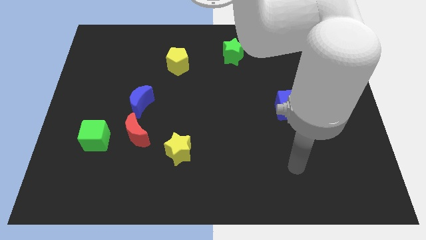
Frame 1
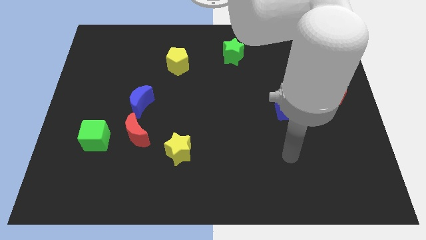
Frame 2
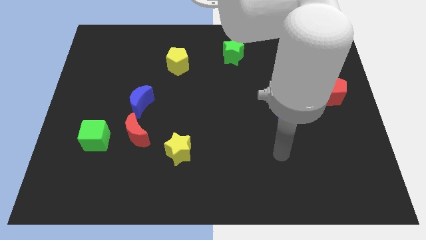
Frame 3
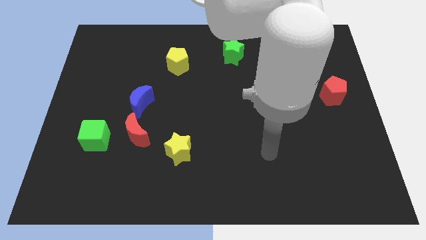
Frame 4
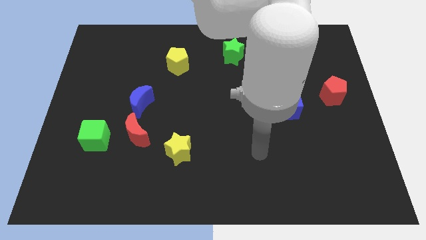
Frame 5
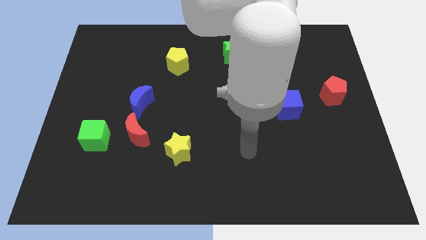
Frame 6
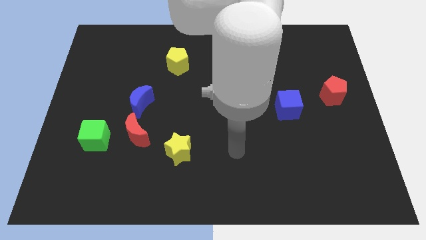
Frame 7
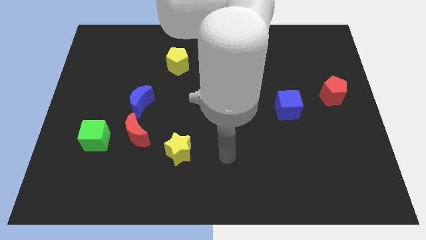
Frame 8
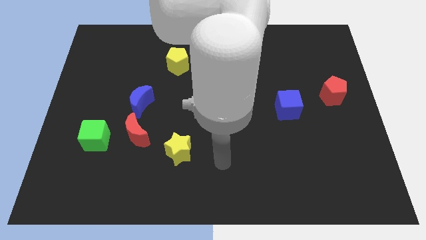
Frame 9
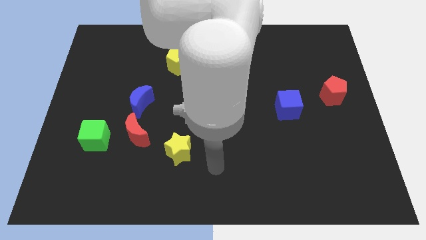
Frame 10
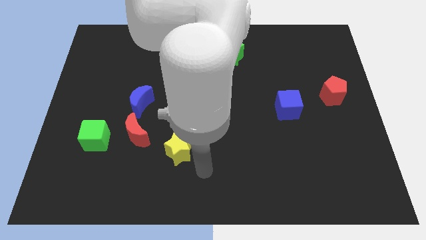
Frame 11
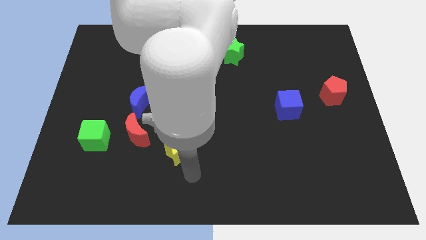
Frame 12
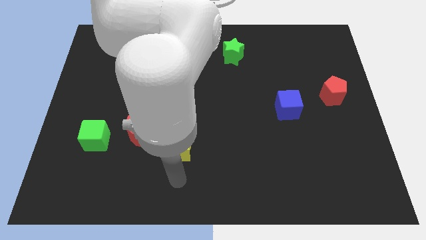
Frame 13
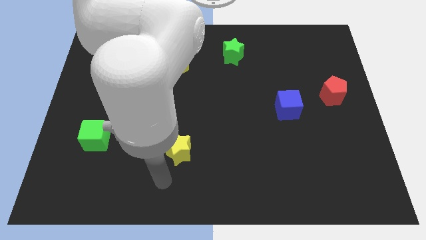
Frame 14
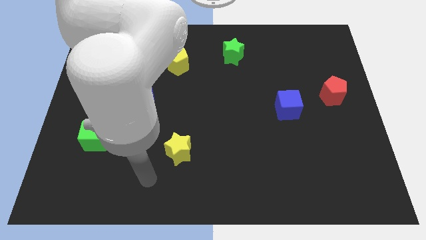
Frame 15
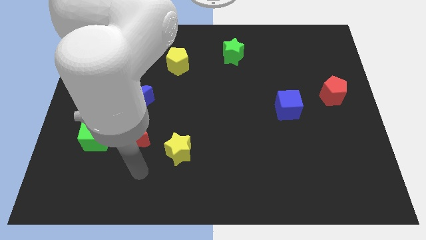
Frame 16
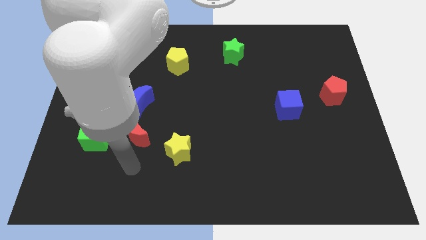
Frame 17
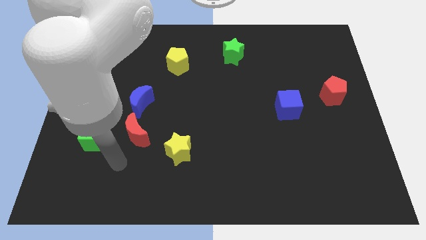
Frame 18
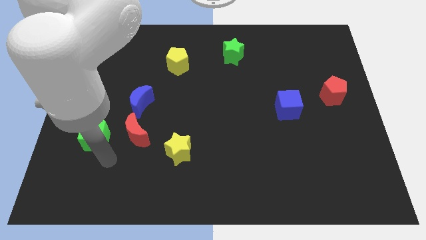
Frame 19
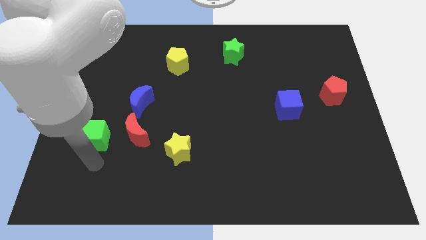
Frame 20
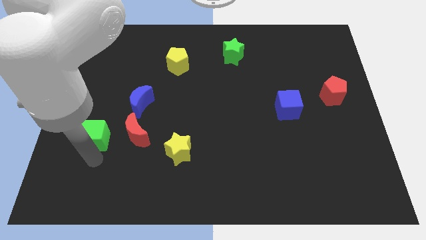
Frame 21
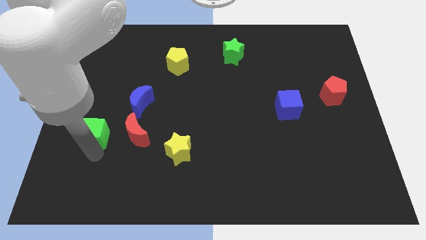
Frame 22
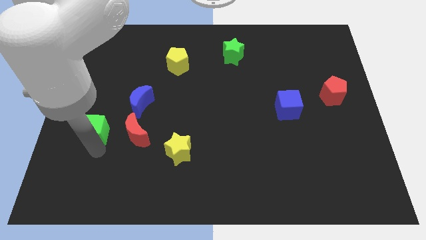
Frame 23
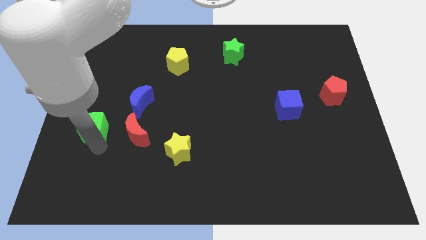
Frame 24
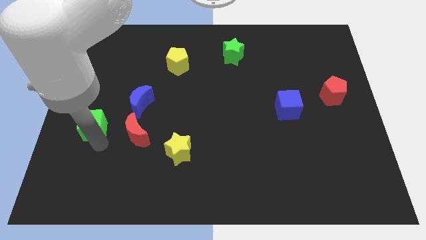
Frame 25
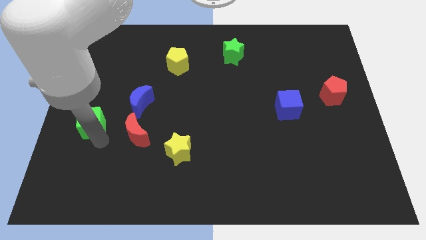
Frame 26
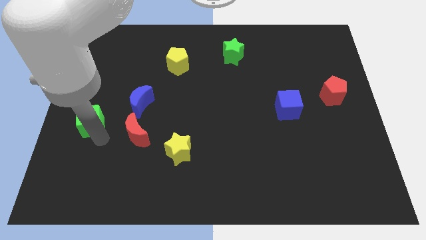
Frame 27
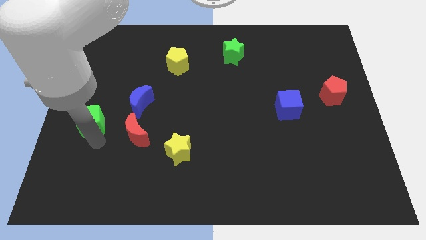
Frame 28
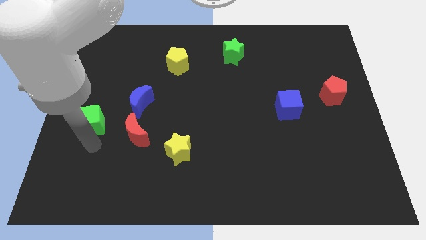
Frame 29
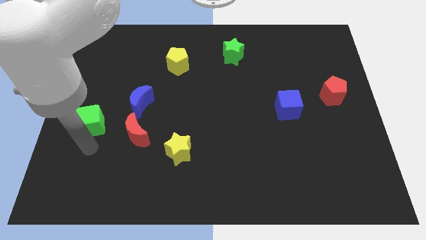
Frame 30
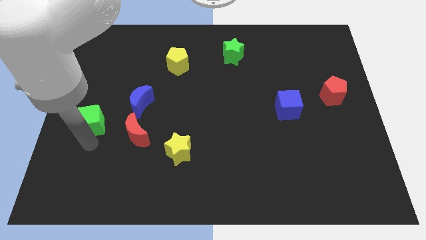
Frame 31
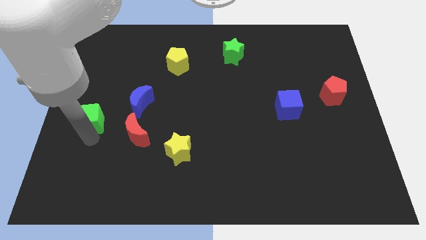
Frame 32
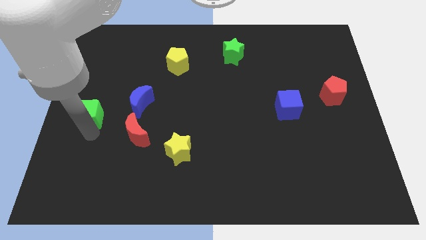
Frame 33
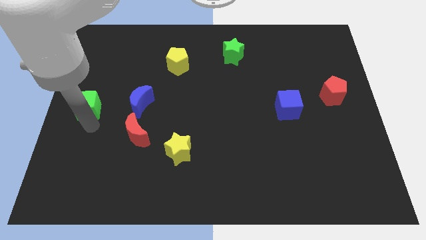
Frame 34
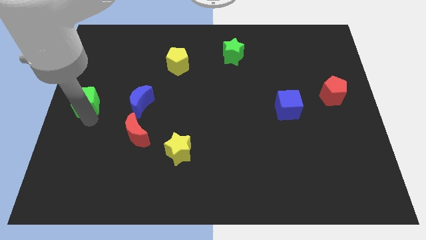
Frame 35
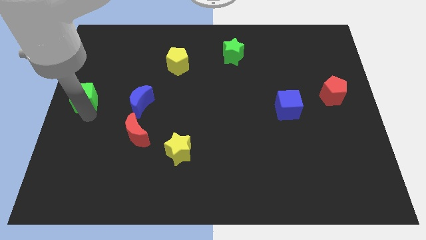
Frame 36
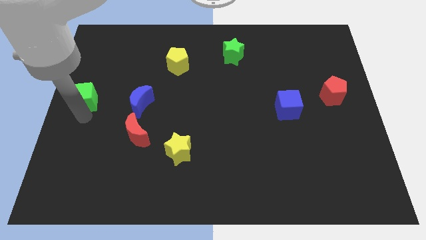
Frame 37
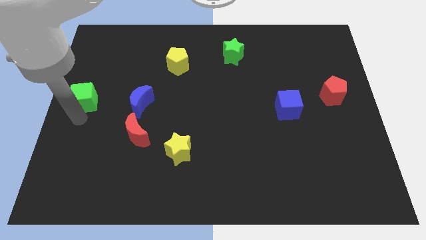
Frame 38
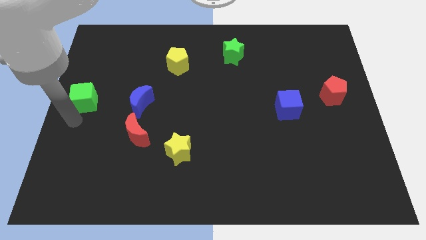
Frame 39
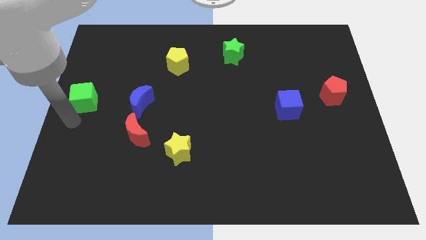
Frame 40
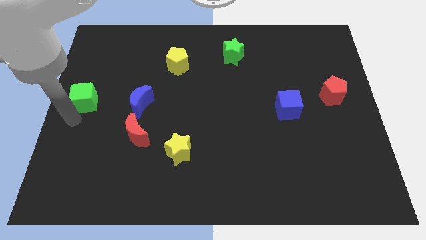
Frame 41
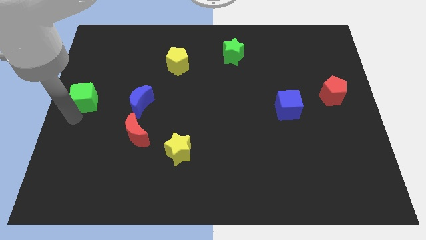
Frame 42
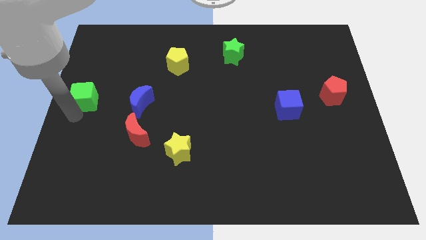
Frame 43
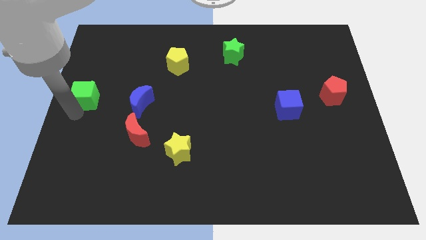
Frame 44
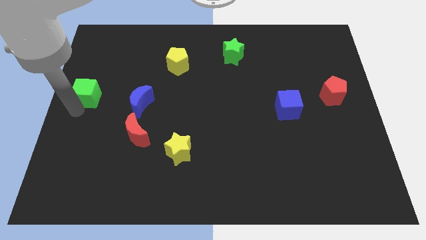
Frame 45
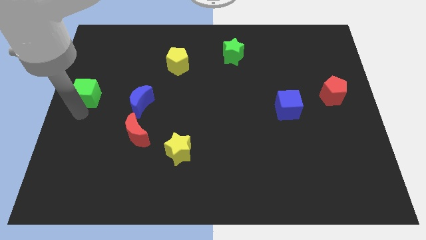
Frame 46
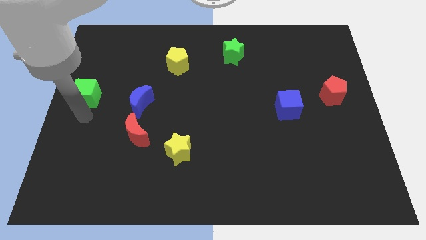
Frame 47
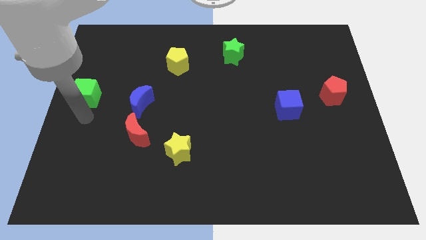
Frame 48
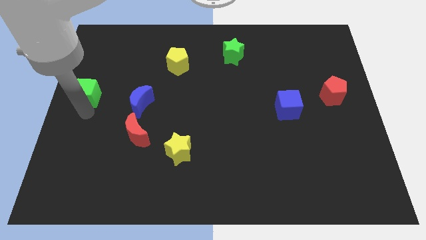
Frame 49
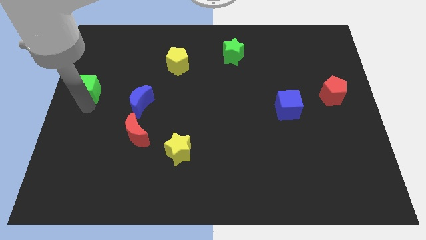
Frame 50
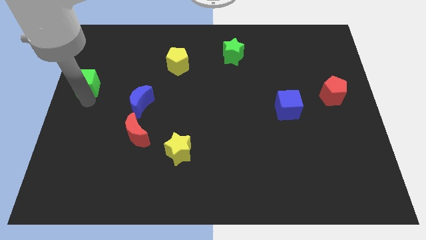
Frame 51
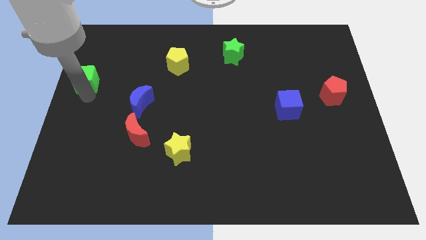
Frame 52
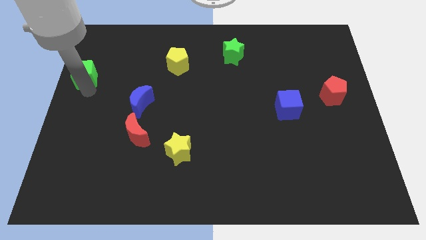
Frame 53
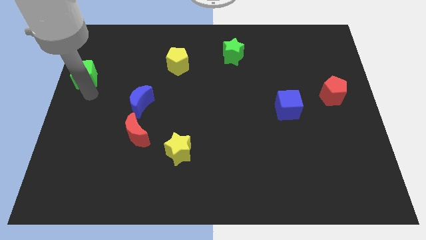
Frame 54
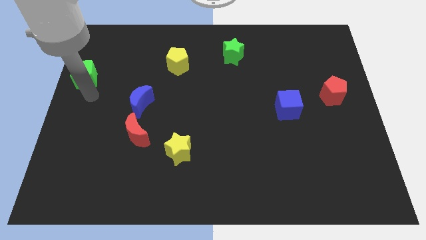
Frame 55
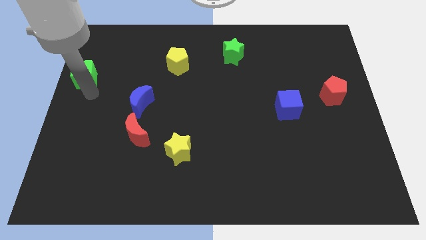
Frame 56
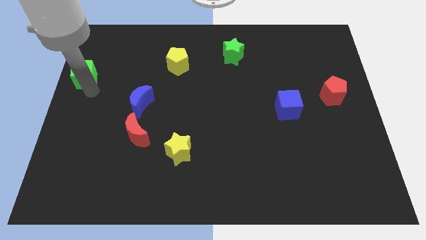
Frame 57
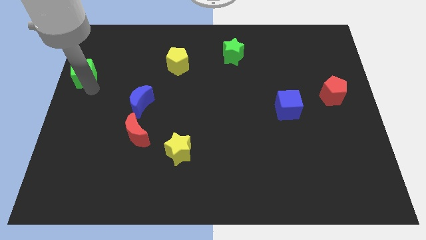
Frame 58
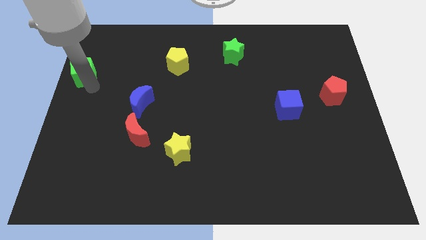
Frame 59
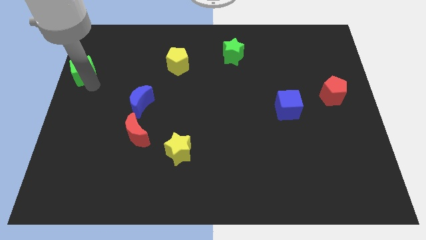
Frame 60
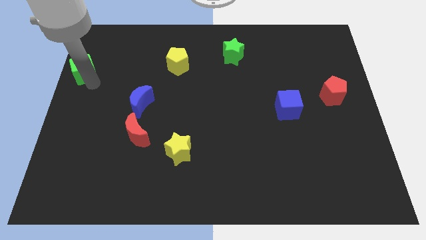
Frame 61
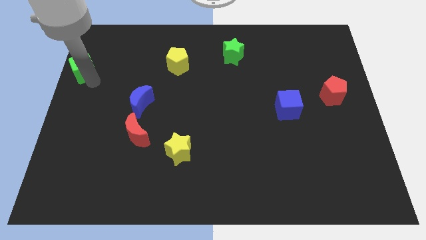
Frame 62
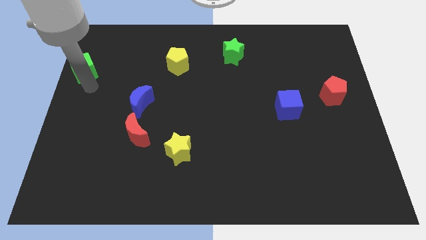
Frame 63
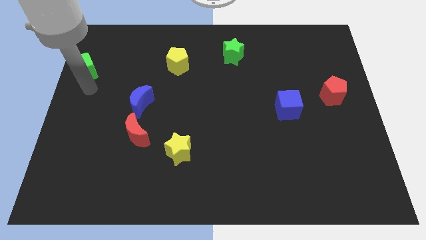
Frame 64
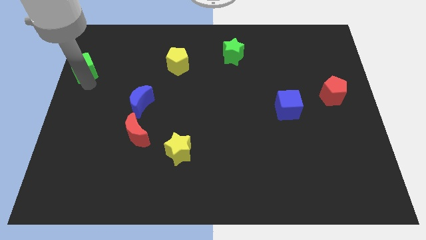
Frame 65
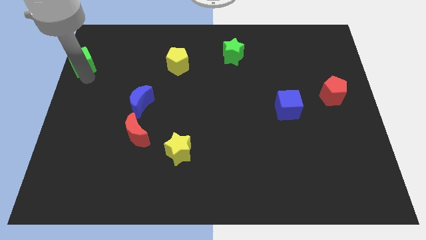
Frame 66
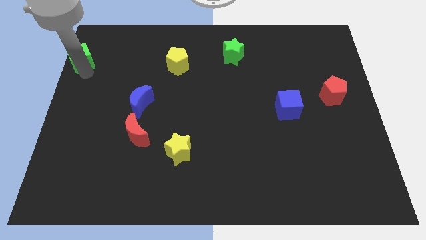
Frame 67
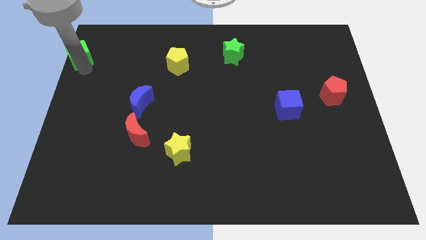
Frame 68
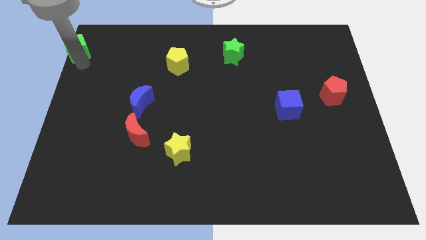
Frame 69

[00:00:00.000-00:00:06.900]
move the green cube to the top left corner
